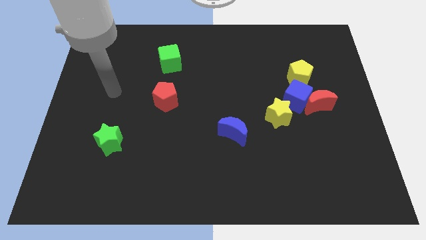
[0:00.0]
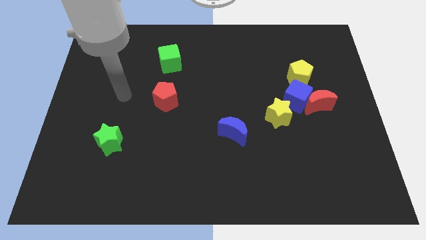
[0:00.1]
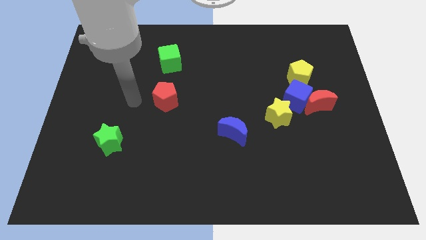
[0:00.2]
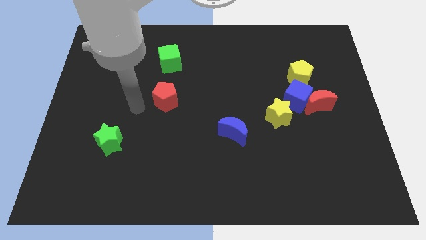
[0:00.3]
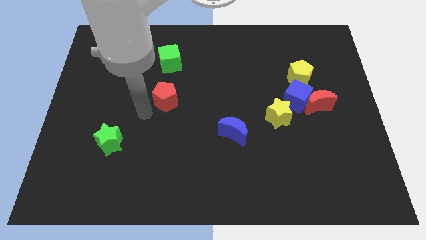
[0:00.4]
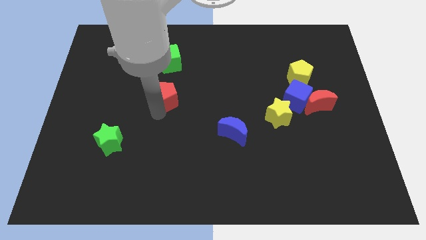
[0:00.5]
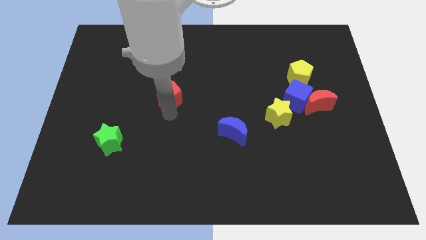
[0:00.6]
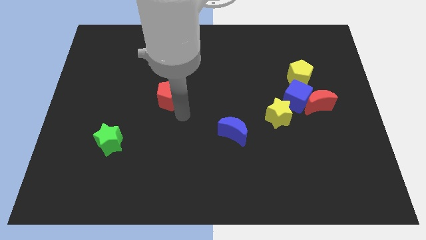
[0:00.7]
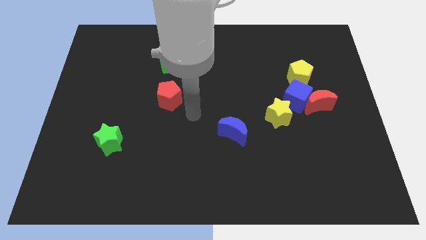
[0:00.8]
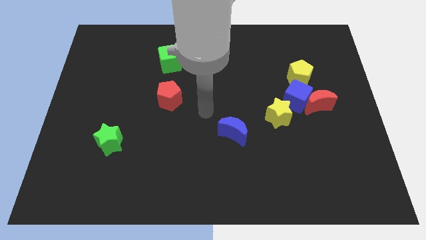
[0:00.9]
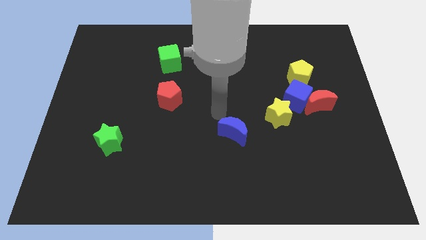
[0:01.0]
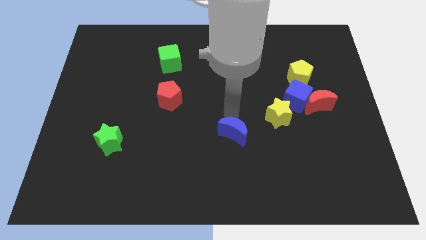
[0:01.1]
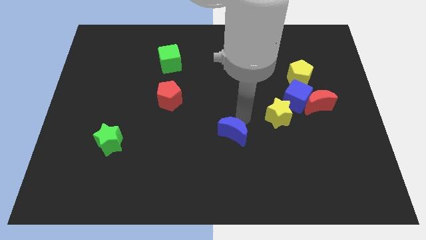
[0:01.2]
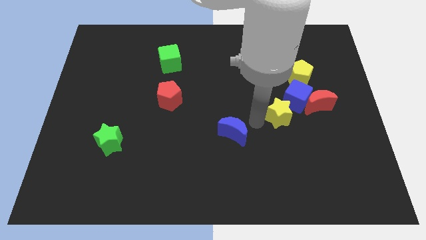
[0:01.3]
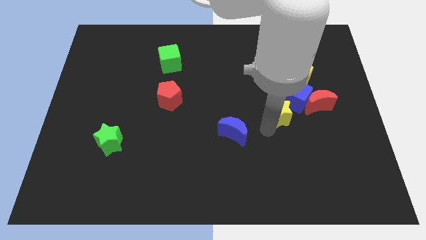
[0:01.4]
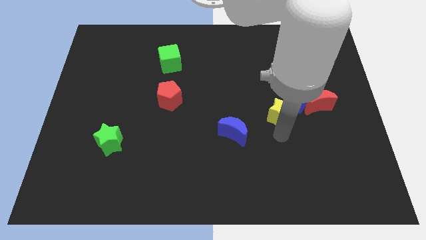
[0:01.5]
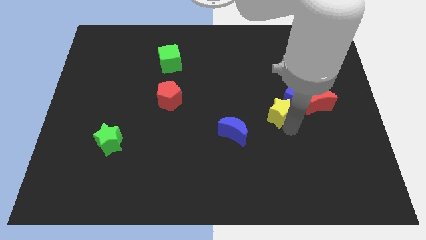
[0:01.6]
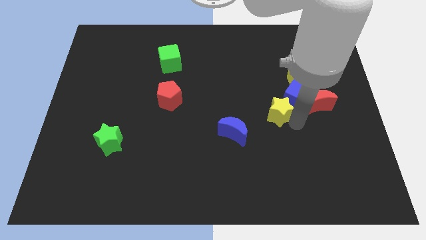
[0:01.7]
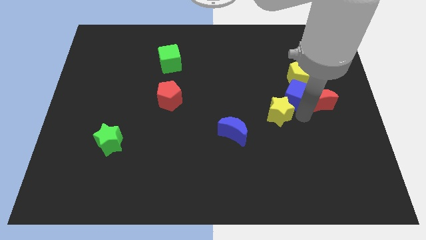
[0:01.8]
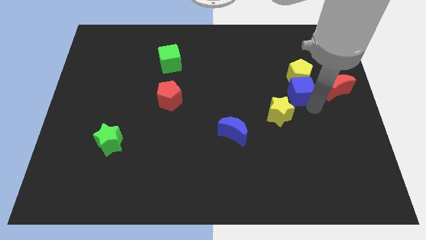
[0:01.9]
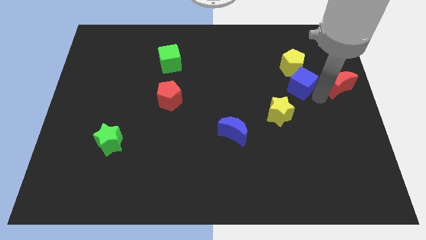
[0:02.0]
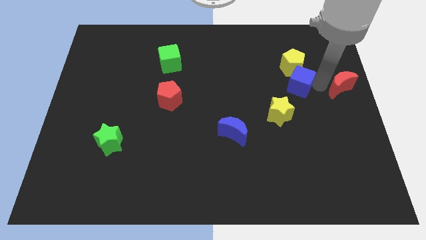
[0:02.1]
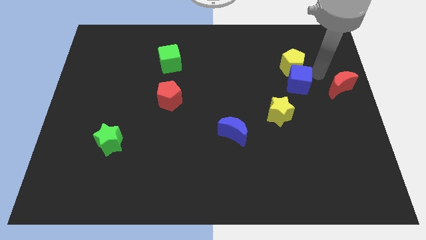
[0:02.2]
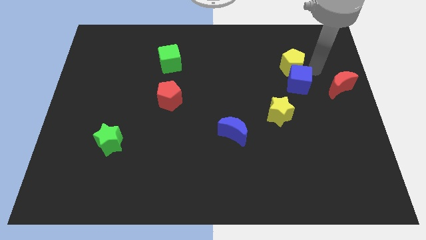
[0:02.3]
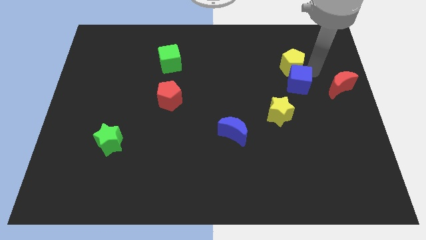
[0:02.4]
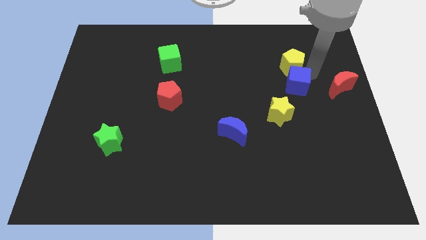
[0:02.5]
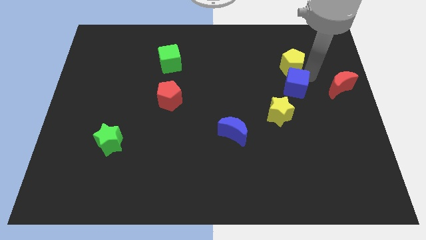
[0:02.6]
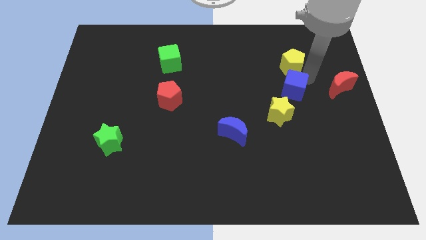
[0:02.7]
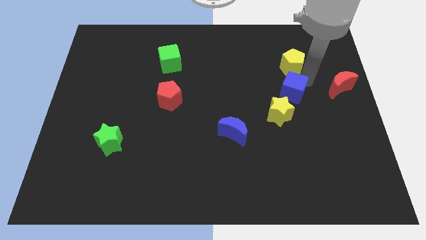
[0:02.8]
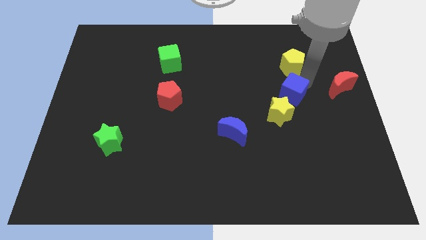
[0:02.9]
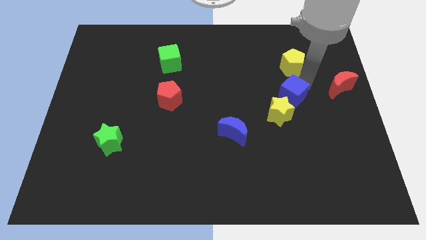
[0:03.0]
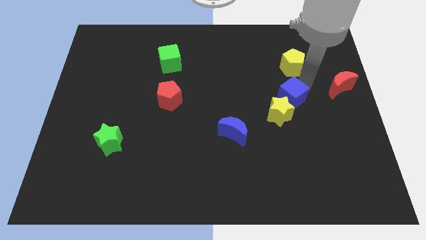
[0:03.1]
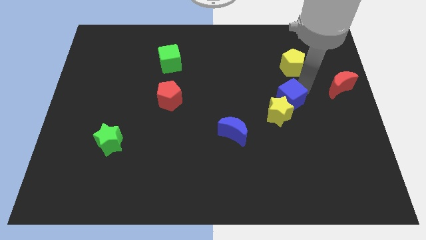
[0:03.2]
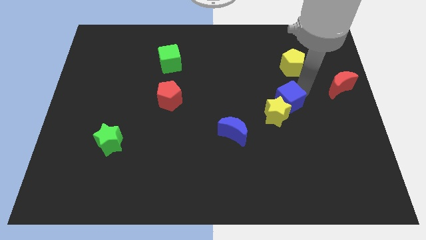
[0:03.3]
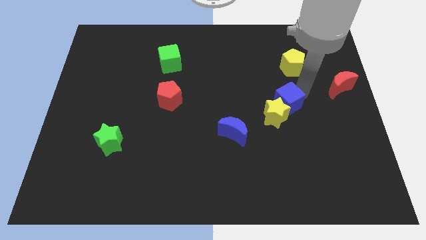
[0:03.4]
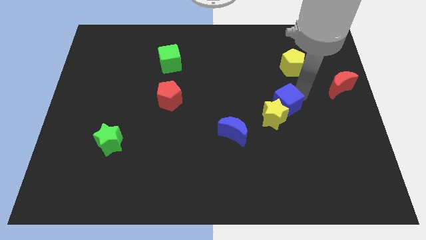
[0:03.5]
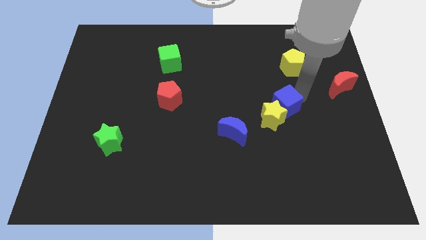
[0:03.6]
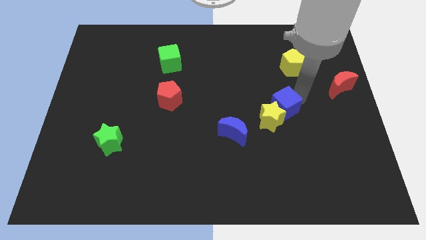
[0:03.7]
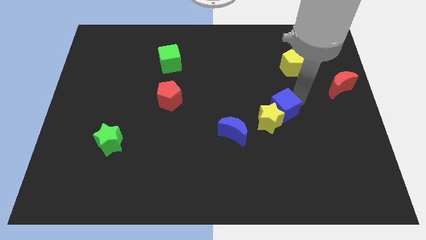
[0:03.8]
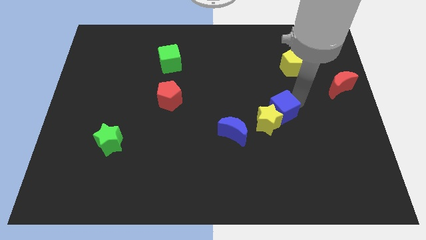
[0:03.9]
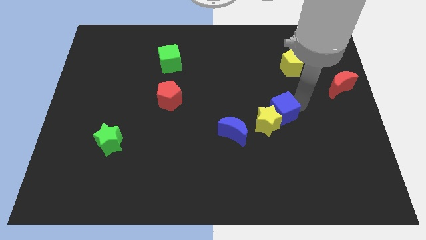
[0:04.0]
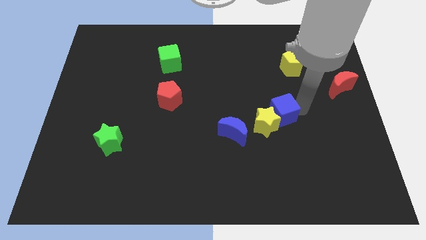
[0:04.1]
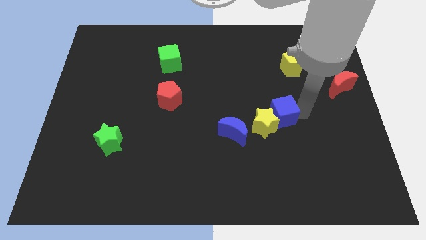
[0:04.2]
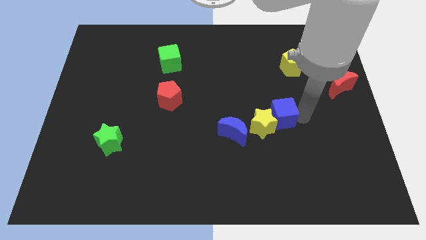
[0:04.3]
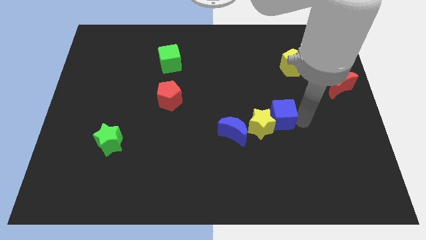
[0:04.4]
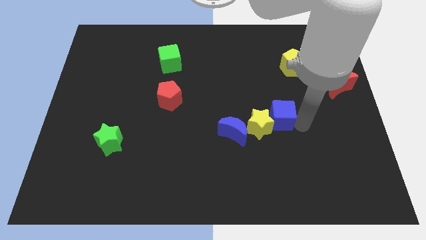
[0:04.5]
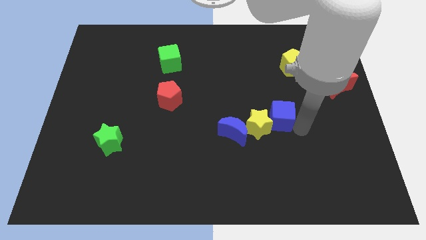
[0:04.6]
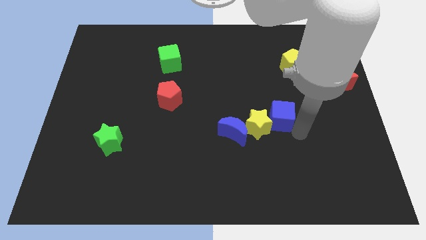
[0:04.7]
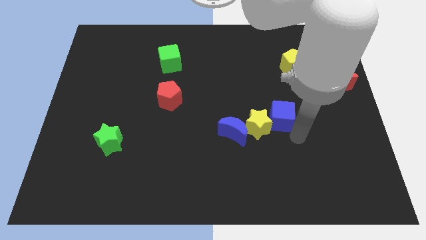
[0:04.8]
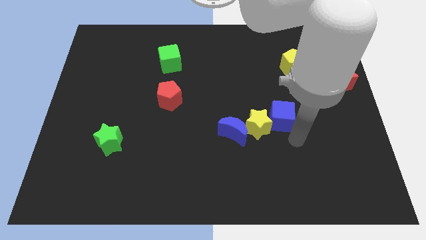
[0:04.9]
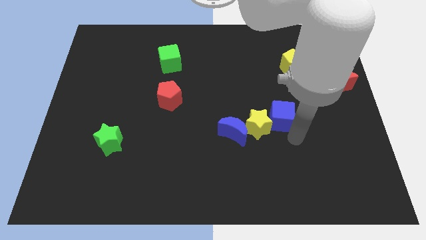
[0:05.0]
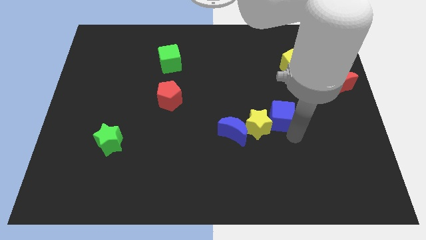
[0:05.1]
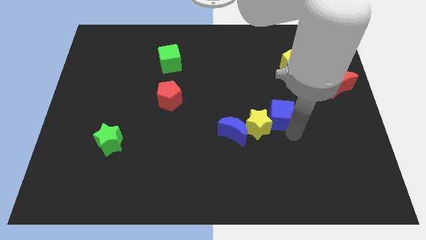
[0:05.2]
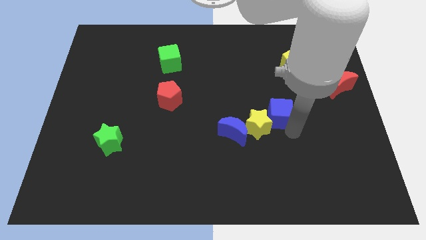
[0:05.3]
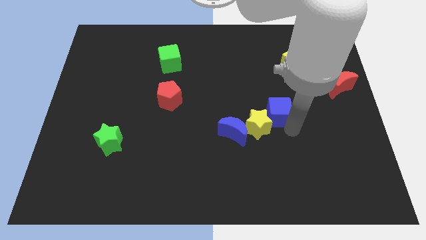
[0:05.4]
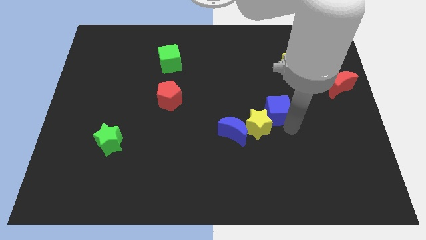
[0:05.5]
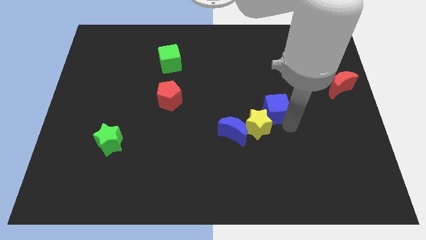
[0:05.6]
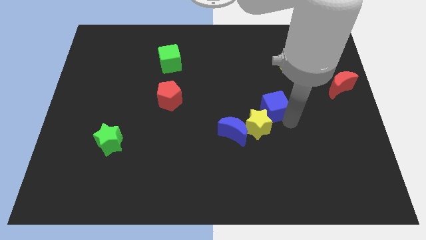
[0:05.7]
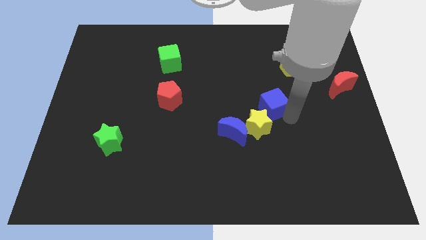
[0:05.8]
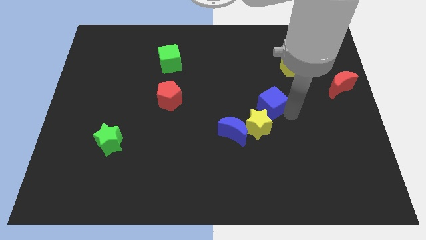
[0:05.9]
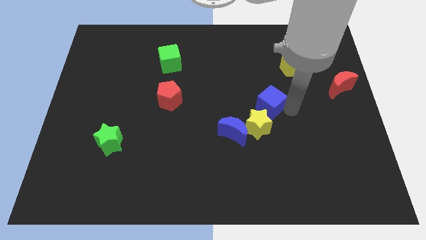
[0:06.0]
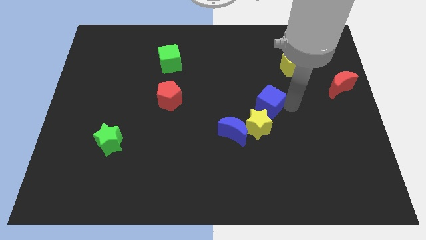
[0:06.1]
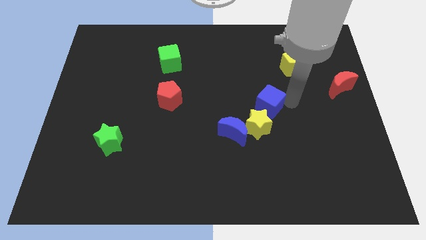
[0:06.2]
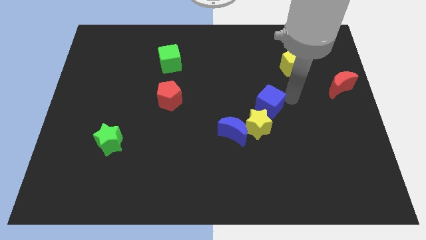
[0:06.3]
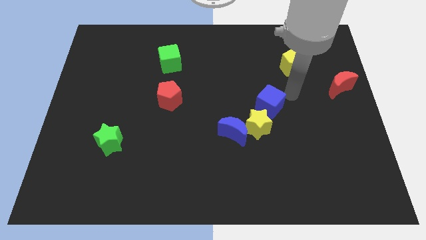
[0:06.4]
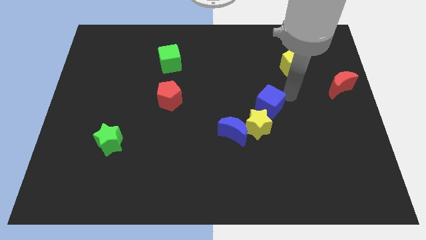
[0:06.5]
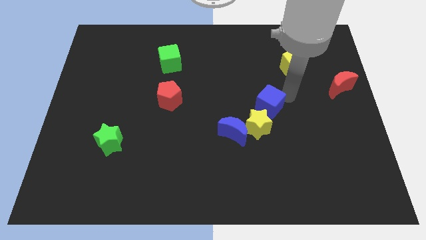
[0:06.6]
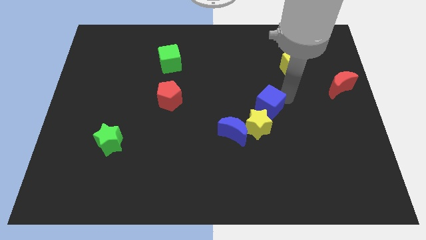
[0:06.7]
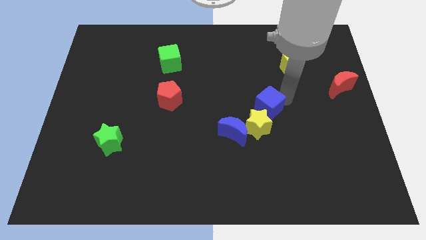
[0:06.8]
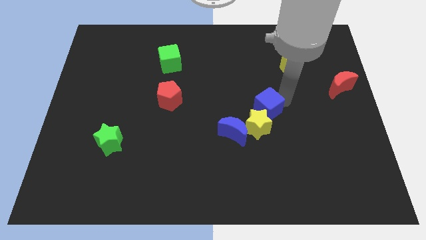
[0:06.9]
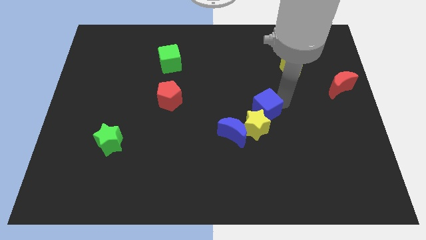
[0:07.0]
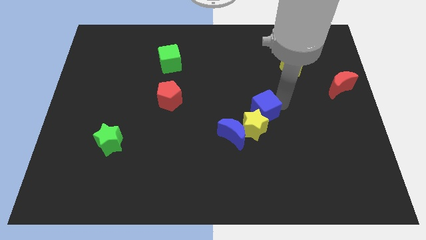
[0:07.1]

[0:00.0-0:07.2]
separate the blue cube from the clump

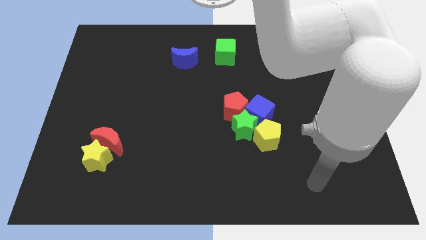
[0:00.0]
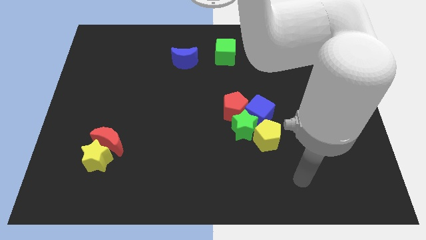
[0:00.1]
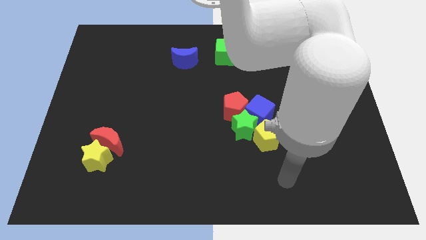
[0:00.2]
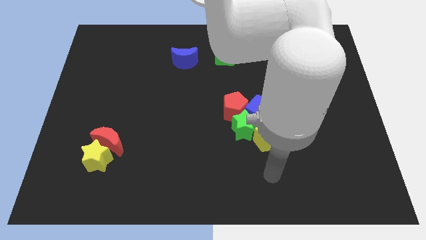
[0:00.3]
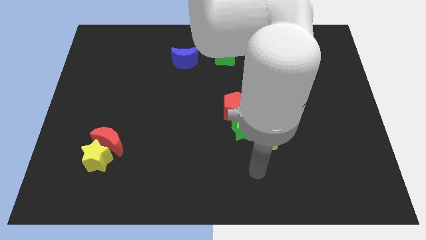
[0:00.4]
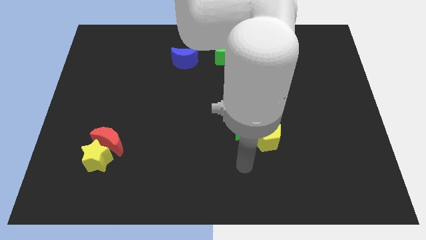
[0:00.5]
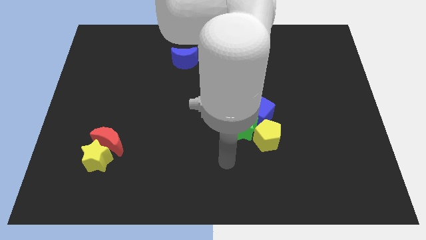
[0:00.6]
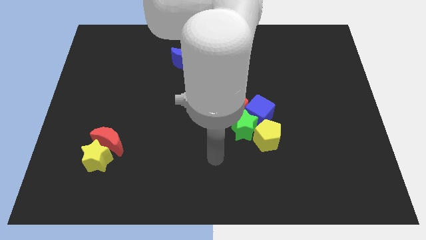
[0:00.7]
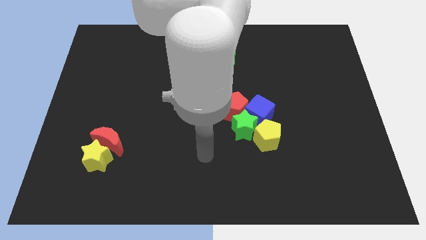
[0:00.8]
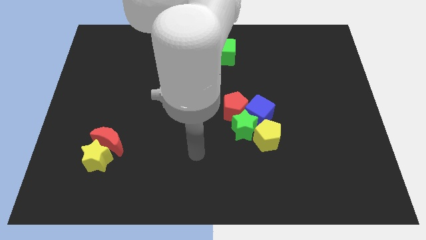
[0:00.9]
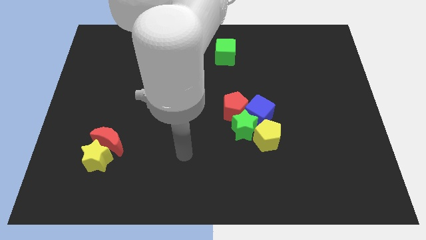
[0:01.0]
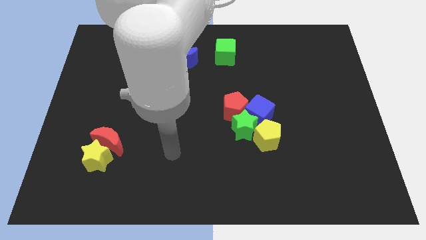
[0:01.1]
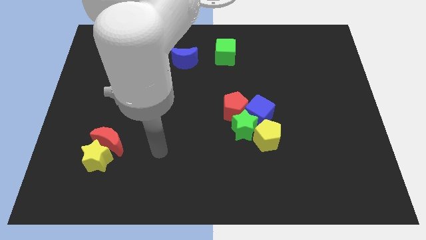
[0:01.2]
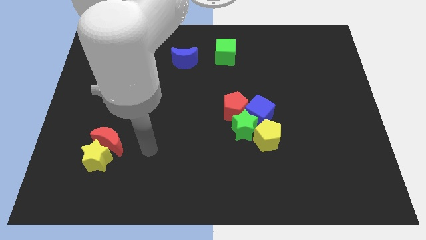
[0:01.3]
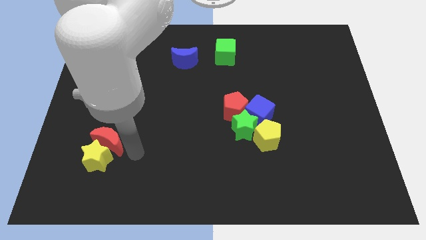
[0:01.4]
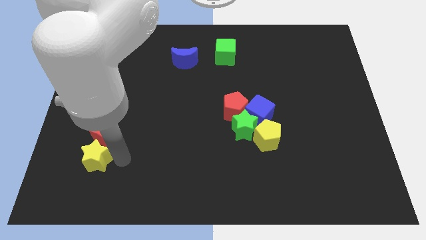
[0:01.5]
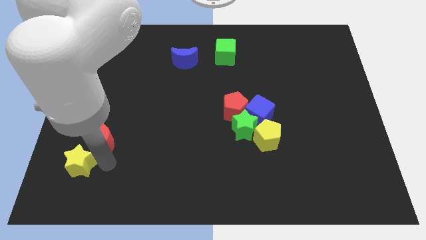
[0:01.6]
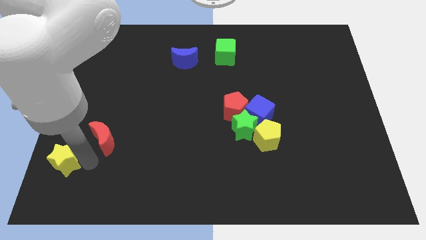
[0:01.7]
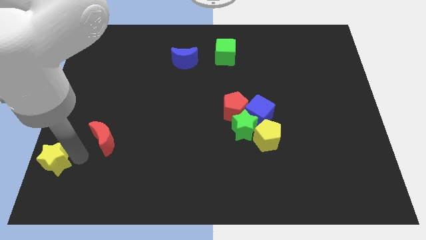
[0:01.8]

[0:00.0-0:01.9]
pull the red moon apart from the yellow star

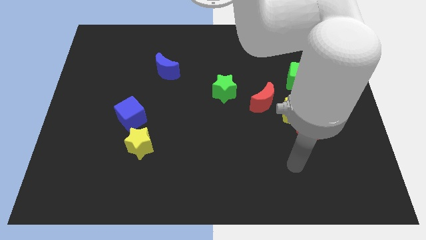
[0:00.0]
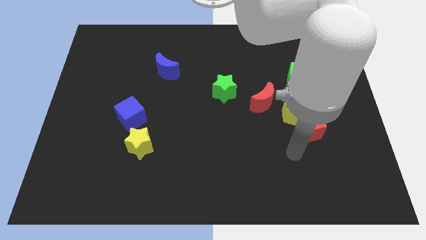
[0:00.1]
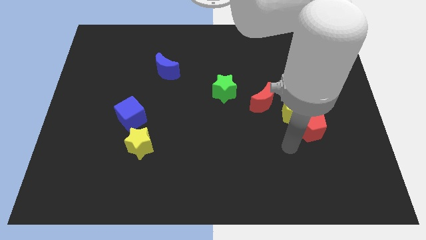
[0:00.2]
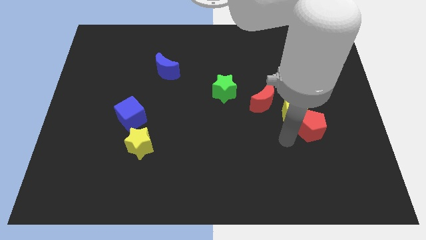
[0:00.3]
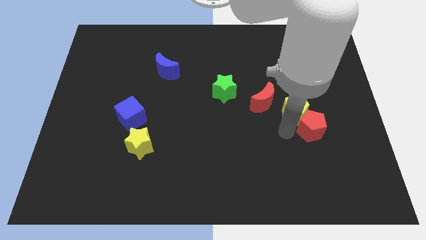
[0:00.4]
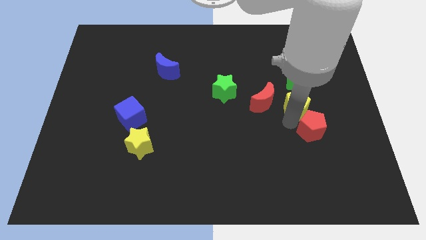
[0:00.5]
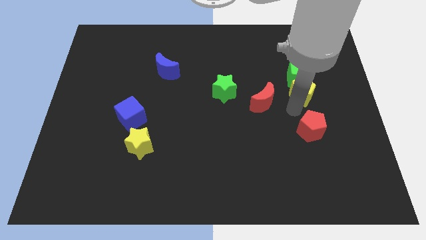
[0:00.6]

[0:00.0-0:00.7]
move the red pentagon away from the yellow pentagon
